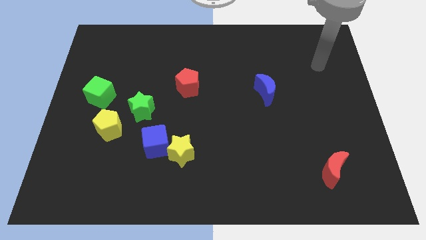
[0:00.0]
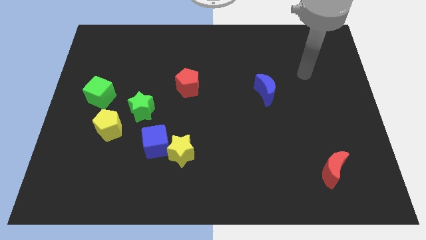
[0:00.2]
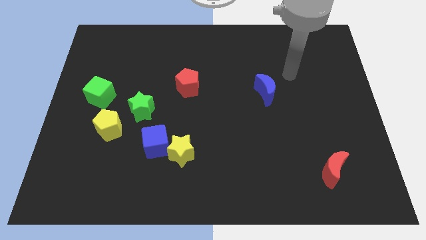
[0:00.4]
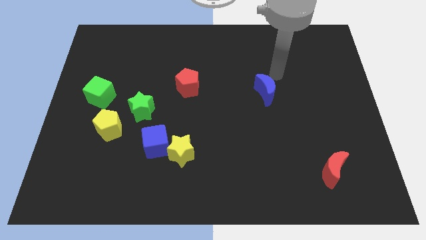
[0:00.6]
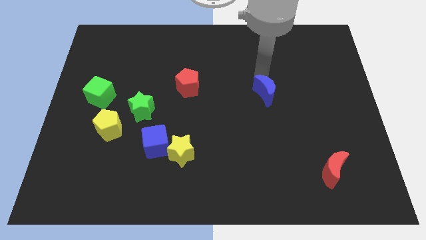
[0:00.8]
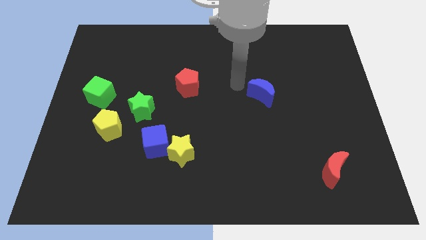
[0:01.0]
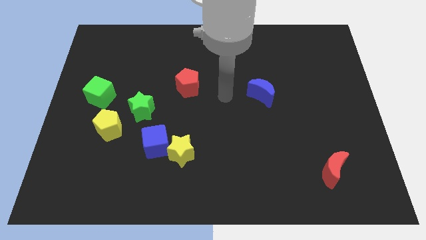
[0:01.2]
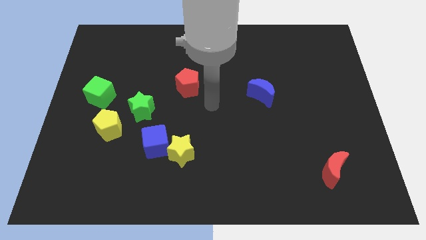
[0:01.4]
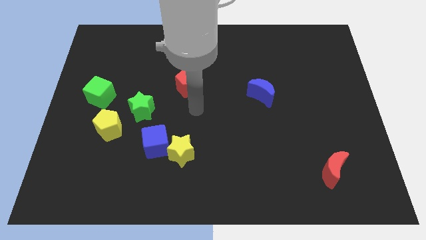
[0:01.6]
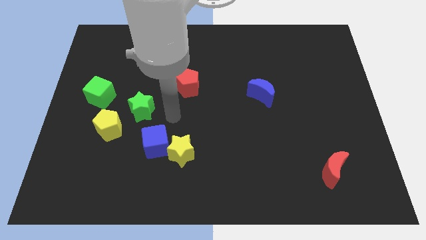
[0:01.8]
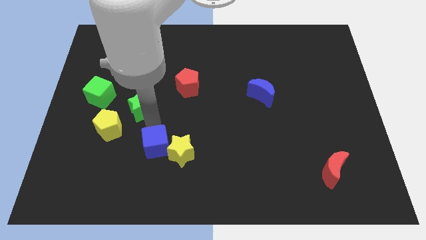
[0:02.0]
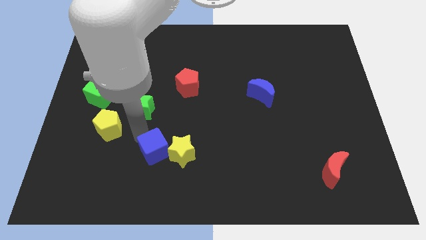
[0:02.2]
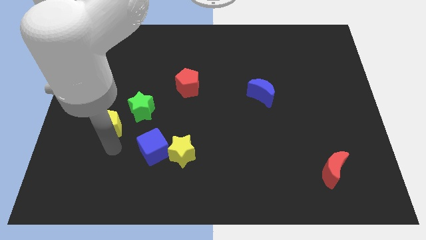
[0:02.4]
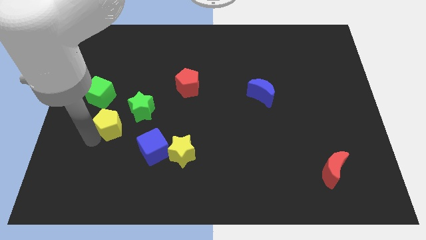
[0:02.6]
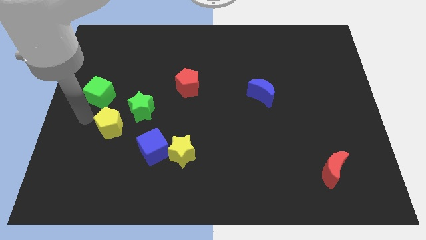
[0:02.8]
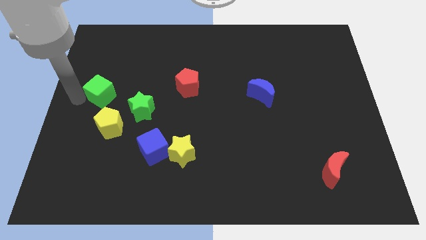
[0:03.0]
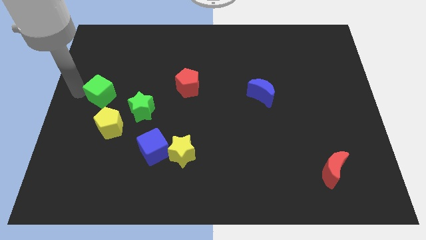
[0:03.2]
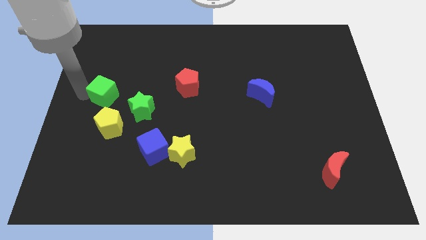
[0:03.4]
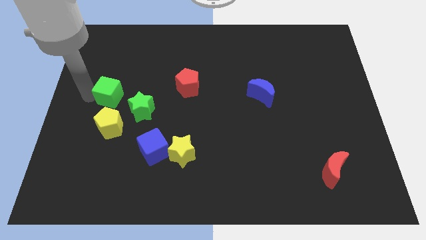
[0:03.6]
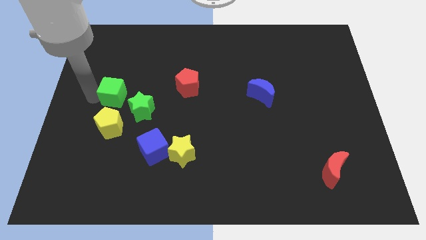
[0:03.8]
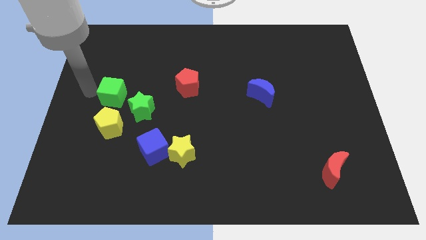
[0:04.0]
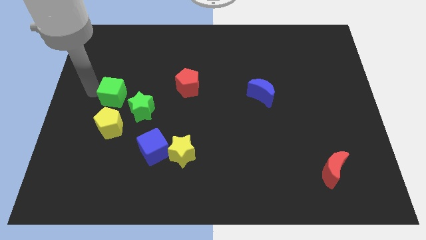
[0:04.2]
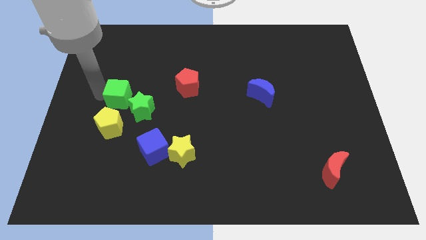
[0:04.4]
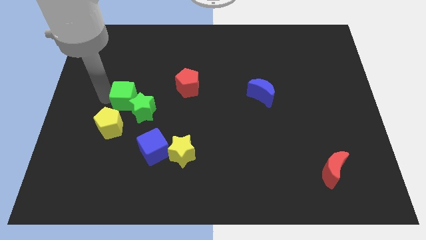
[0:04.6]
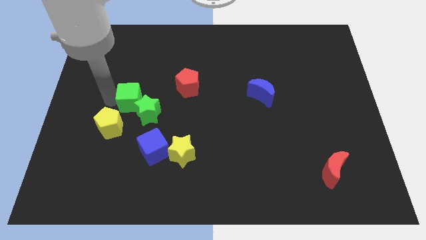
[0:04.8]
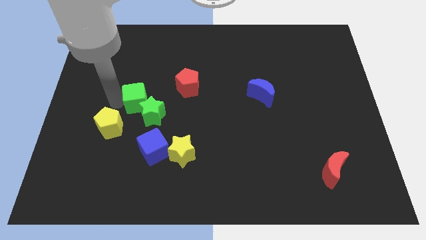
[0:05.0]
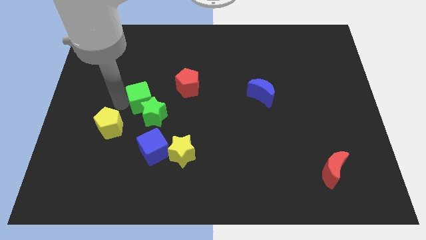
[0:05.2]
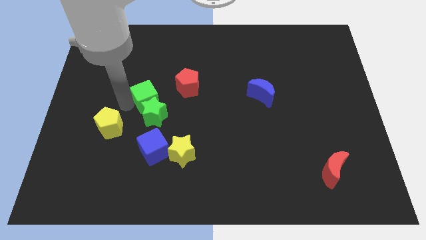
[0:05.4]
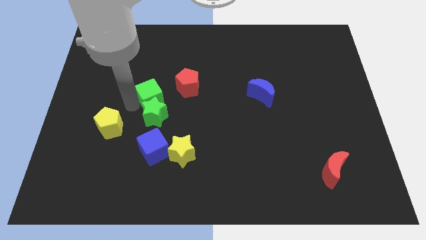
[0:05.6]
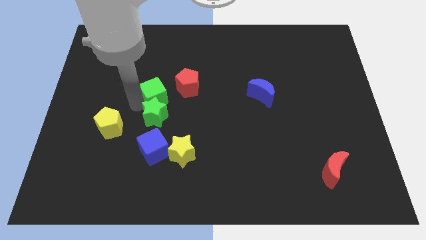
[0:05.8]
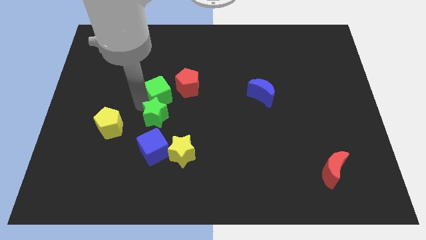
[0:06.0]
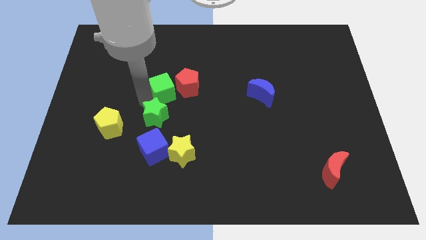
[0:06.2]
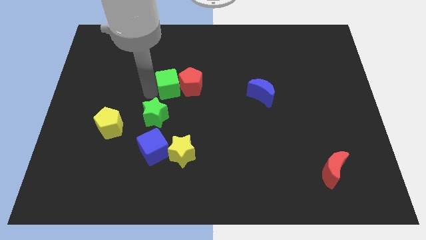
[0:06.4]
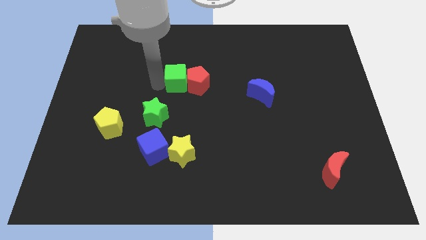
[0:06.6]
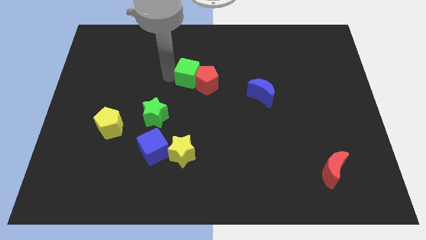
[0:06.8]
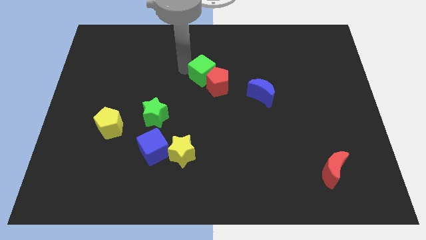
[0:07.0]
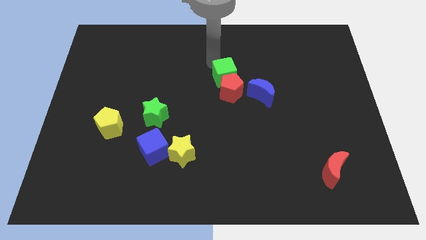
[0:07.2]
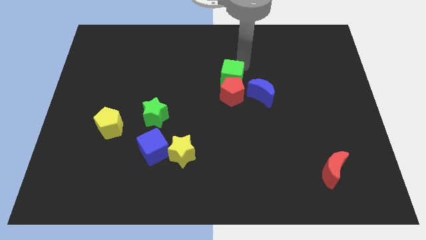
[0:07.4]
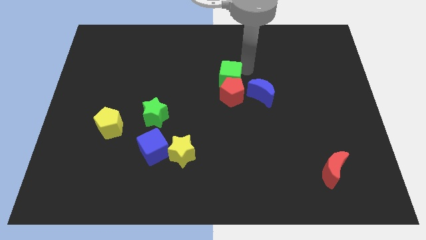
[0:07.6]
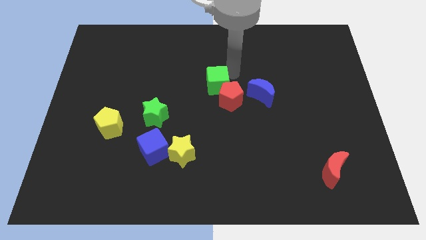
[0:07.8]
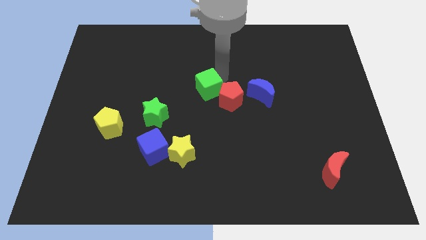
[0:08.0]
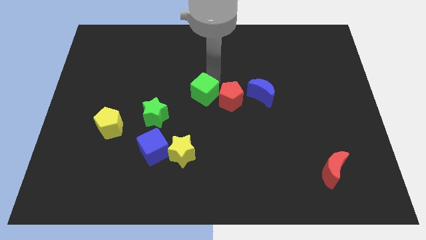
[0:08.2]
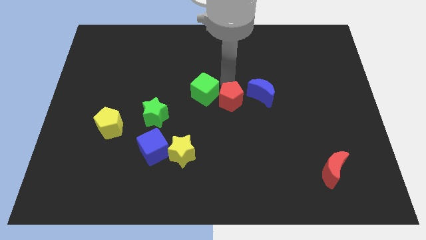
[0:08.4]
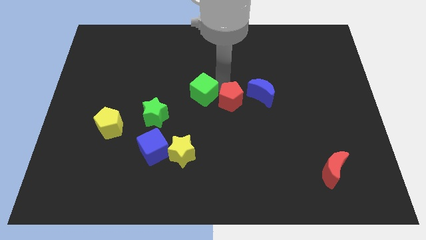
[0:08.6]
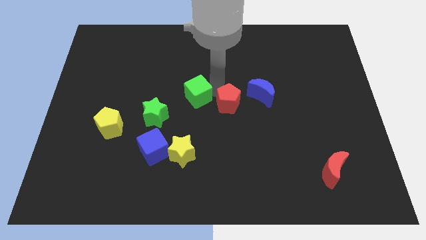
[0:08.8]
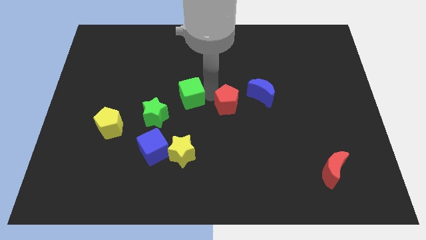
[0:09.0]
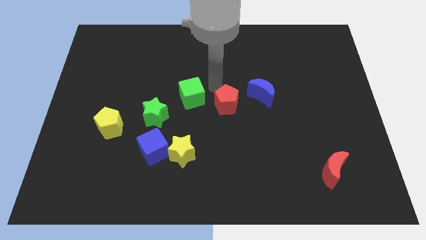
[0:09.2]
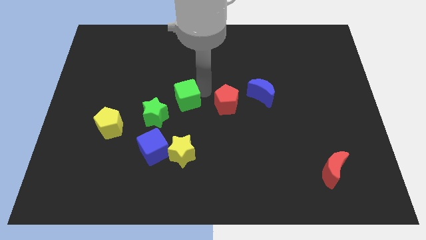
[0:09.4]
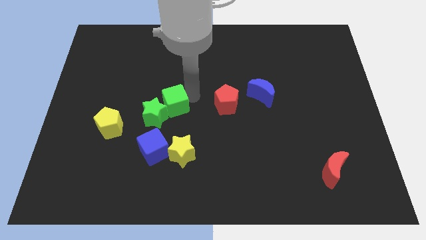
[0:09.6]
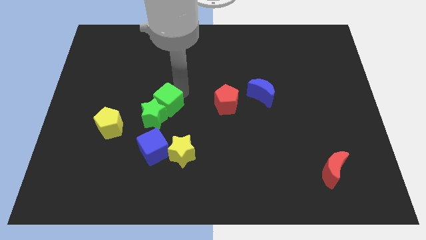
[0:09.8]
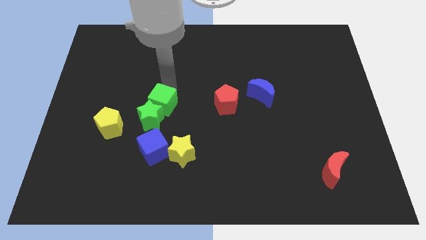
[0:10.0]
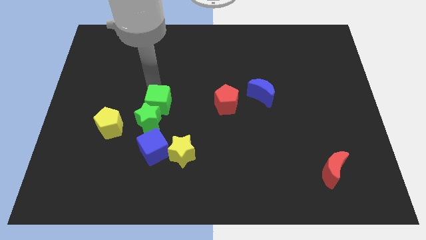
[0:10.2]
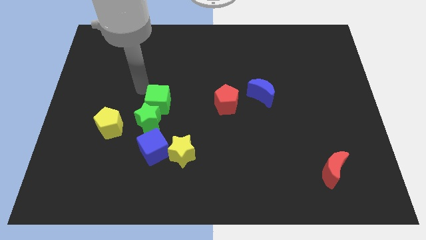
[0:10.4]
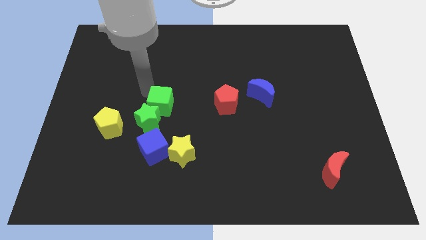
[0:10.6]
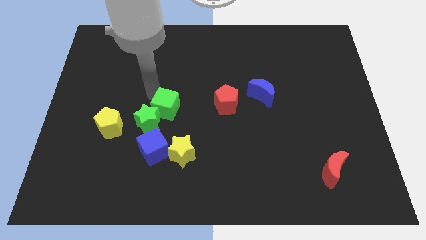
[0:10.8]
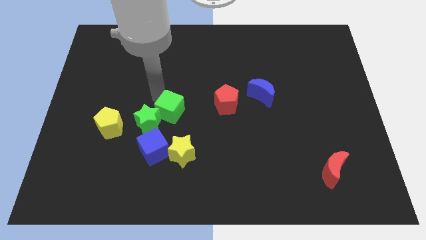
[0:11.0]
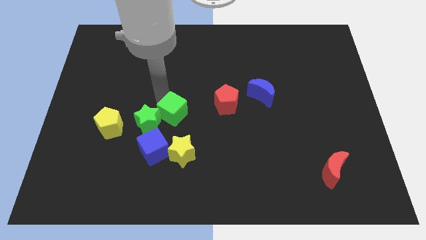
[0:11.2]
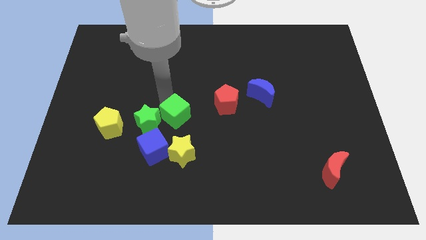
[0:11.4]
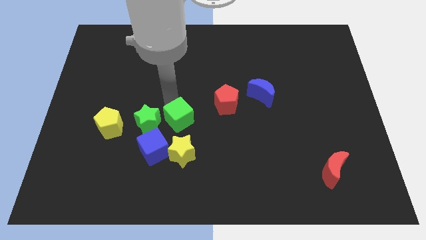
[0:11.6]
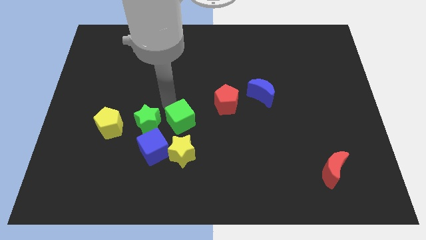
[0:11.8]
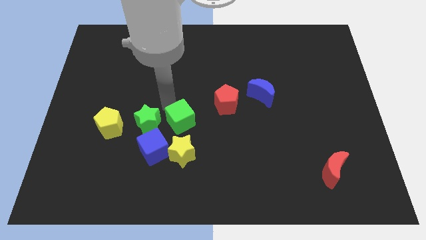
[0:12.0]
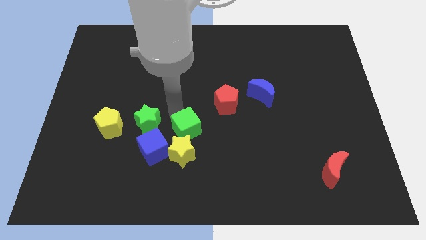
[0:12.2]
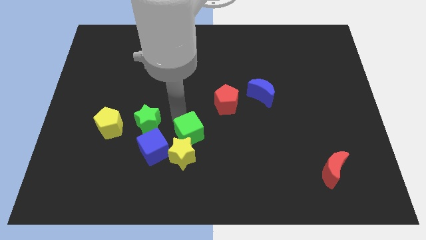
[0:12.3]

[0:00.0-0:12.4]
slide the green cube diagonally down and right

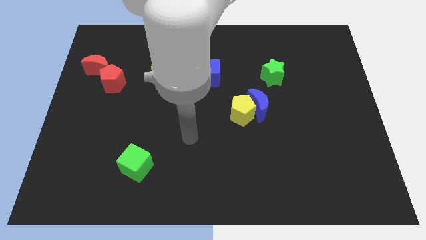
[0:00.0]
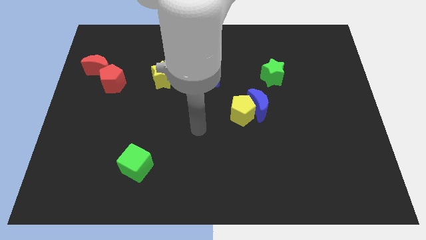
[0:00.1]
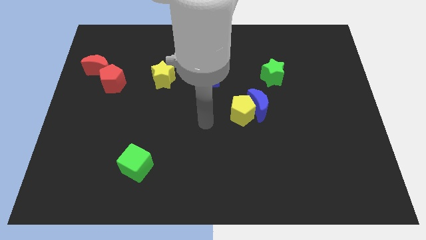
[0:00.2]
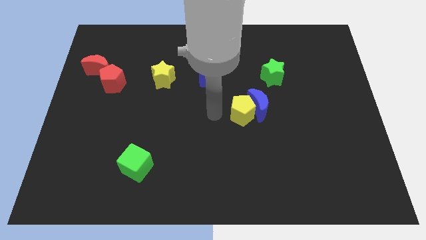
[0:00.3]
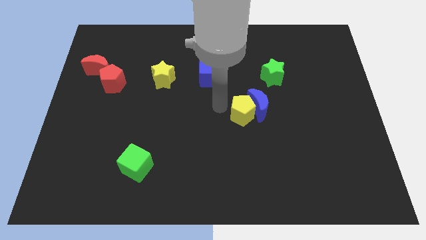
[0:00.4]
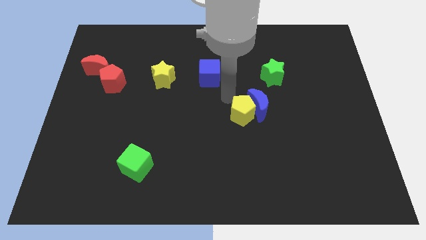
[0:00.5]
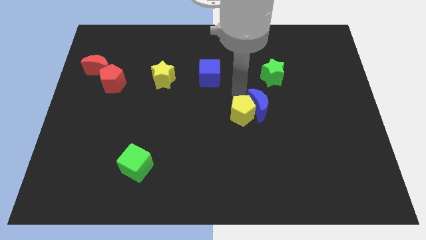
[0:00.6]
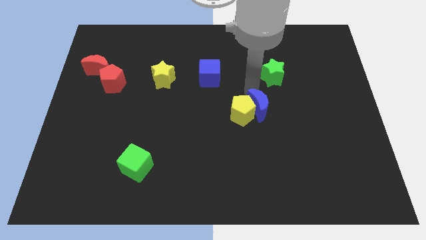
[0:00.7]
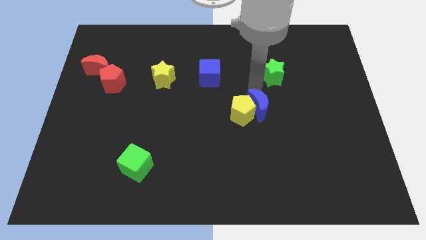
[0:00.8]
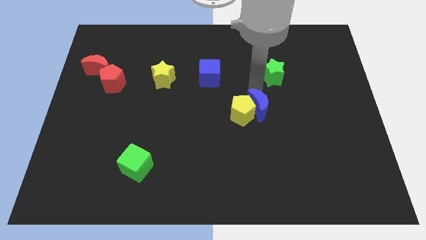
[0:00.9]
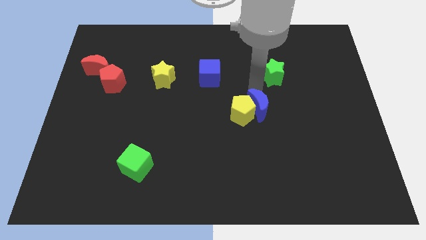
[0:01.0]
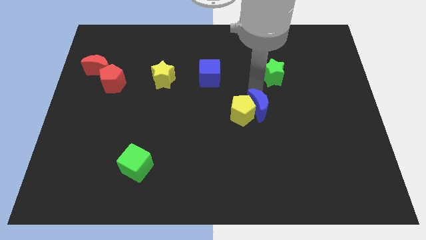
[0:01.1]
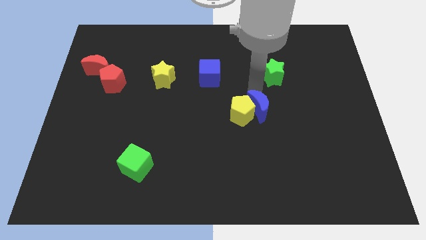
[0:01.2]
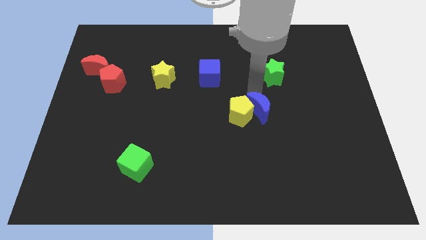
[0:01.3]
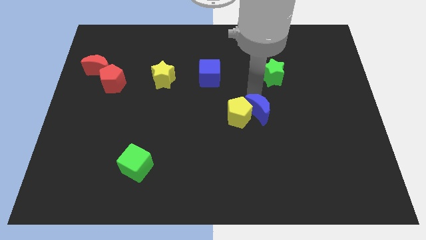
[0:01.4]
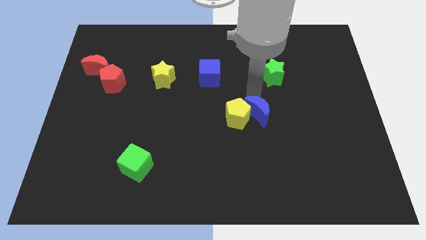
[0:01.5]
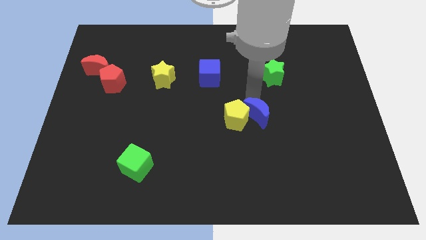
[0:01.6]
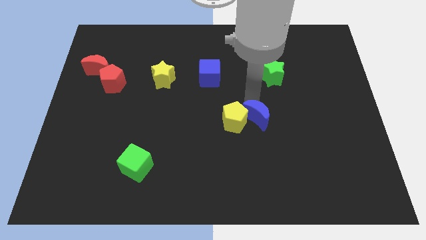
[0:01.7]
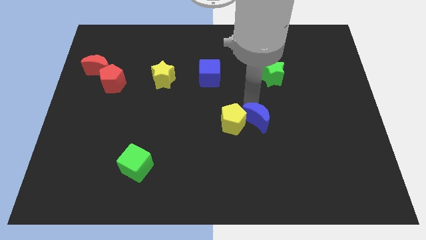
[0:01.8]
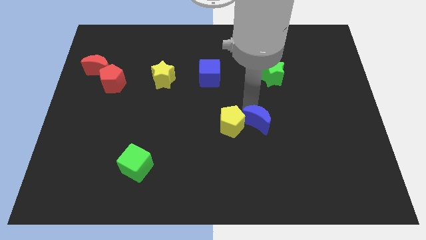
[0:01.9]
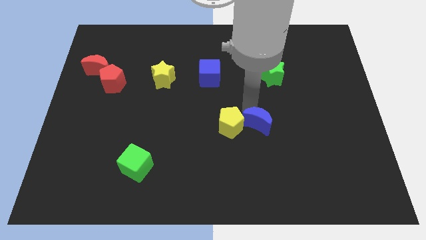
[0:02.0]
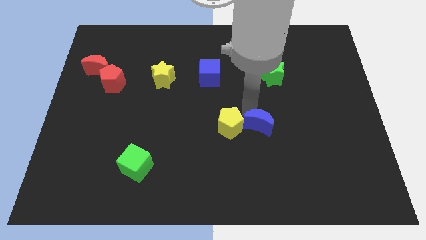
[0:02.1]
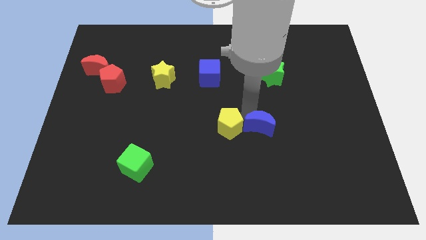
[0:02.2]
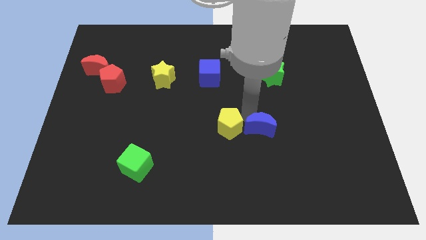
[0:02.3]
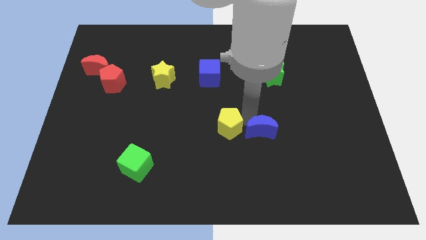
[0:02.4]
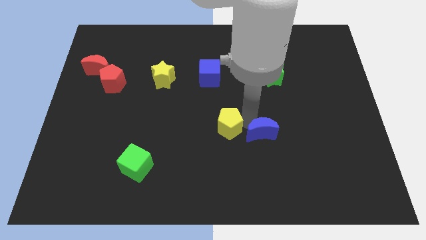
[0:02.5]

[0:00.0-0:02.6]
slightly move the blue moon down
